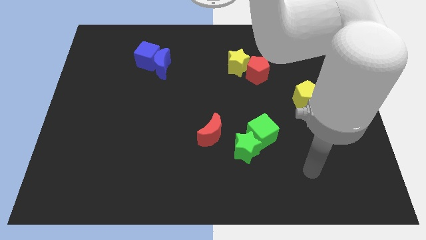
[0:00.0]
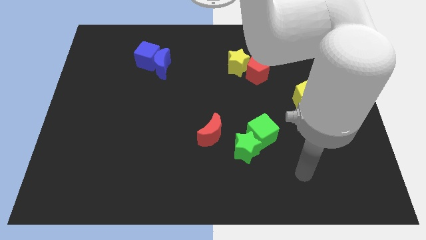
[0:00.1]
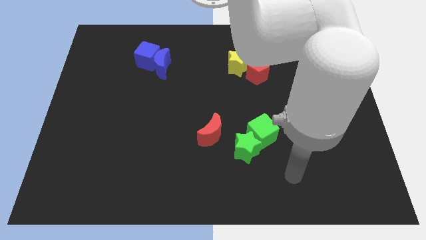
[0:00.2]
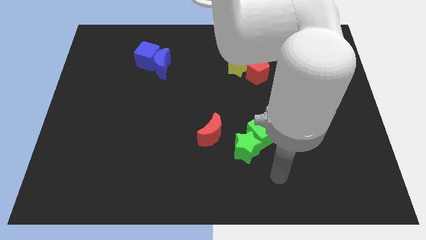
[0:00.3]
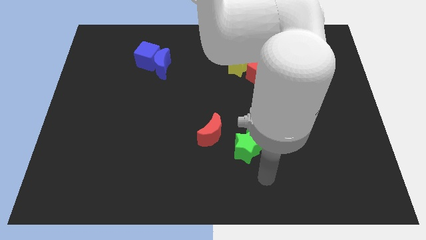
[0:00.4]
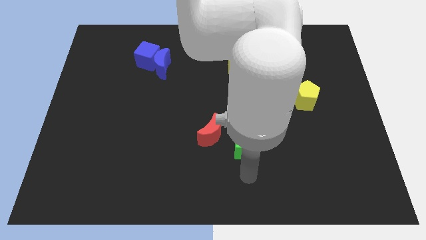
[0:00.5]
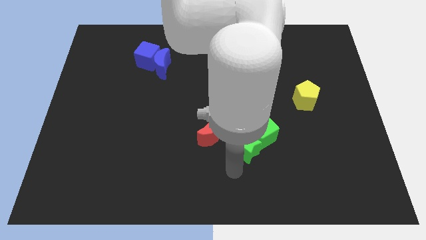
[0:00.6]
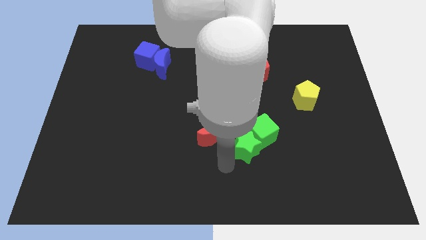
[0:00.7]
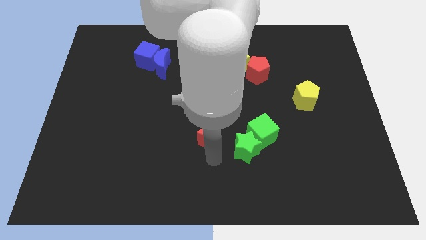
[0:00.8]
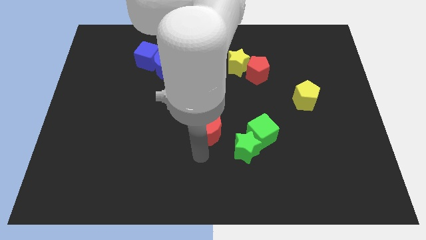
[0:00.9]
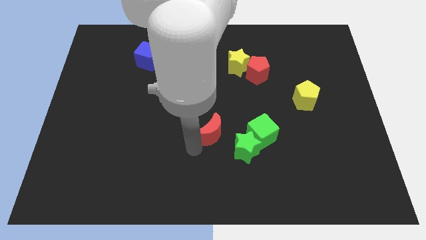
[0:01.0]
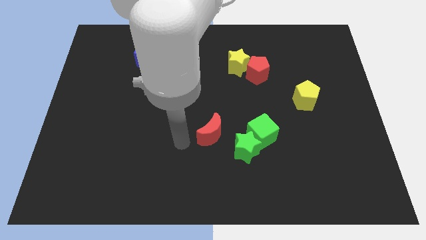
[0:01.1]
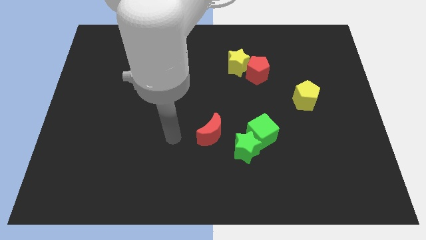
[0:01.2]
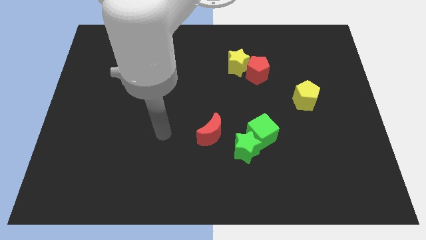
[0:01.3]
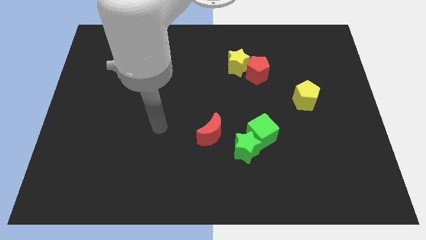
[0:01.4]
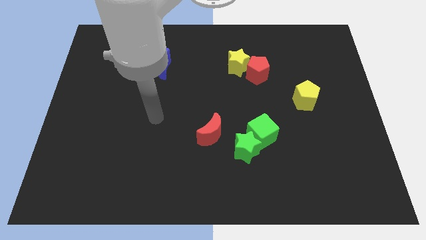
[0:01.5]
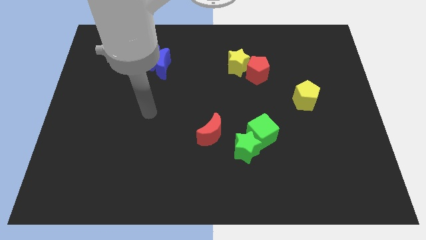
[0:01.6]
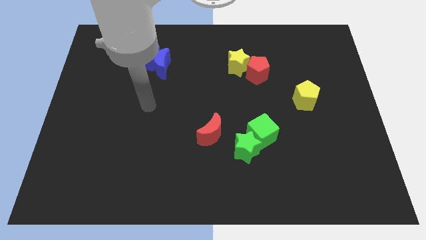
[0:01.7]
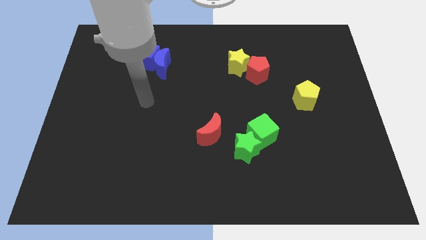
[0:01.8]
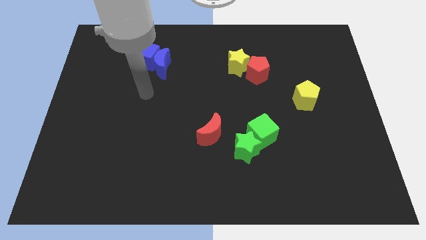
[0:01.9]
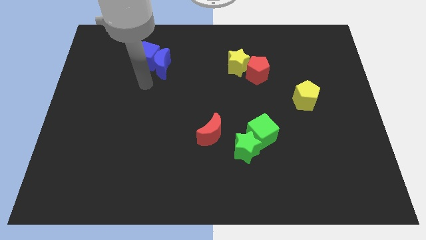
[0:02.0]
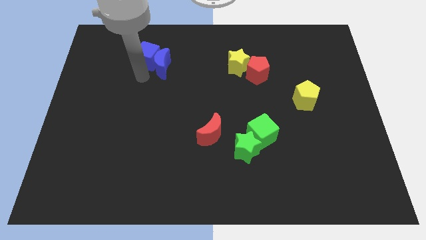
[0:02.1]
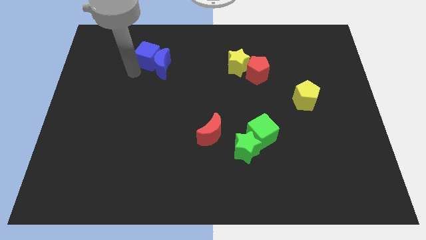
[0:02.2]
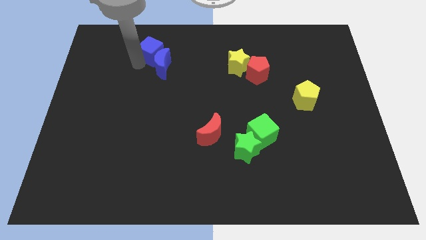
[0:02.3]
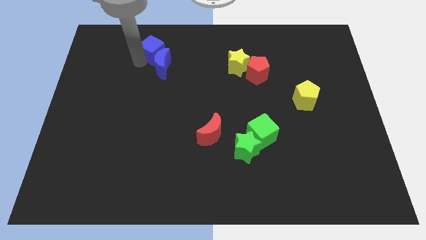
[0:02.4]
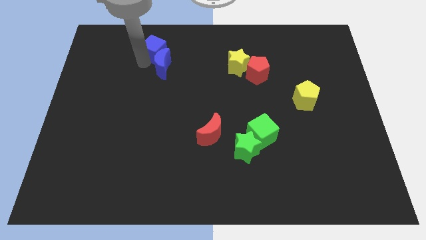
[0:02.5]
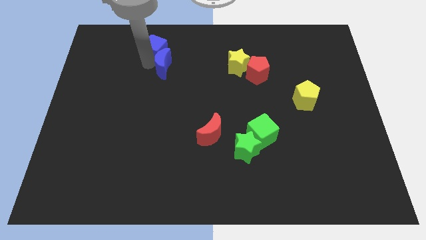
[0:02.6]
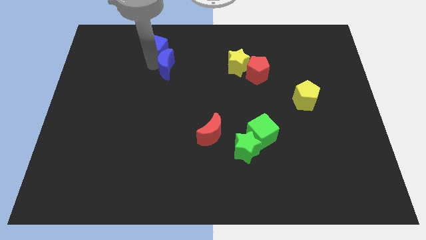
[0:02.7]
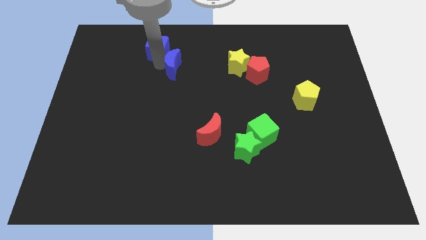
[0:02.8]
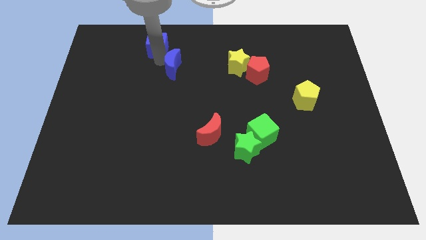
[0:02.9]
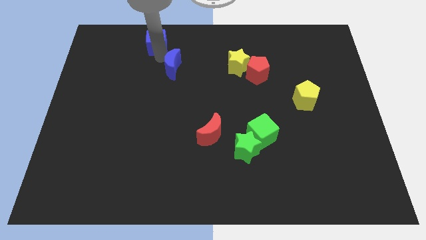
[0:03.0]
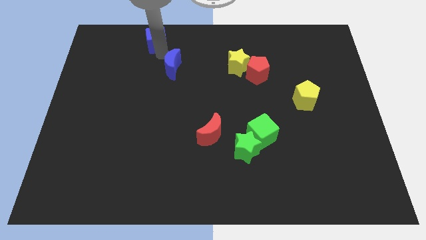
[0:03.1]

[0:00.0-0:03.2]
pull the blue moon apart from the blue cube

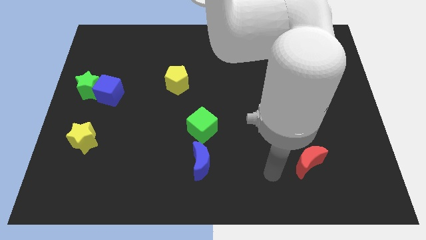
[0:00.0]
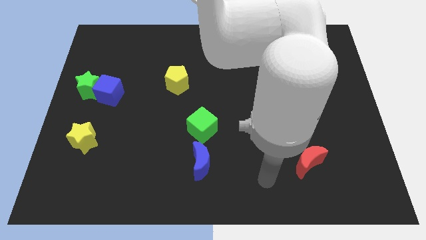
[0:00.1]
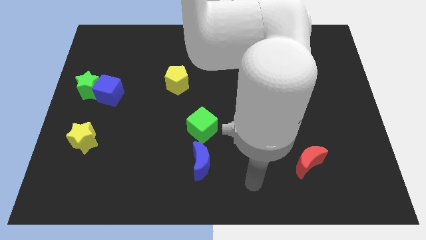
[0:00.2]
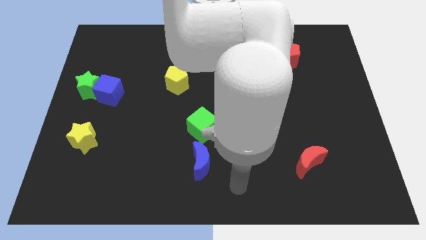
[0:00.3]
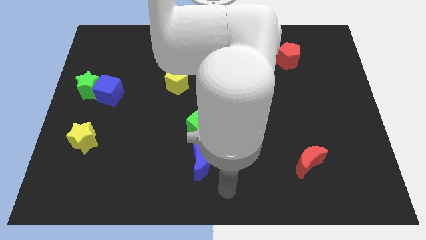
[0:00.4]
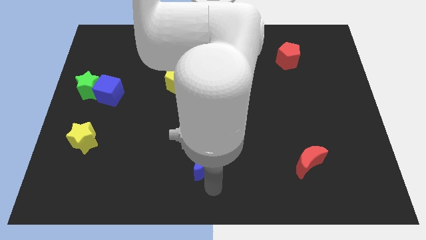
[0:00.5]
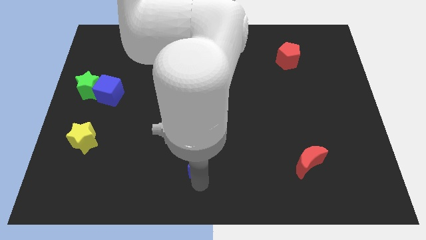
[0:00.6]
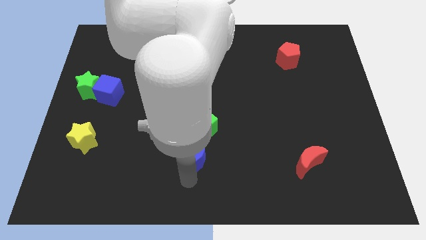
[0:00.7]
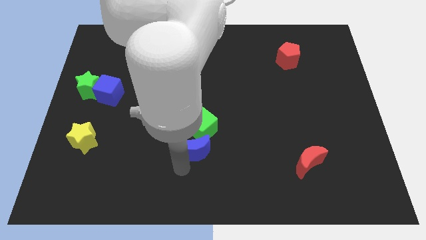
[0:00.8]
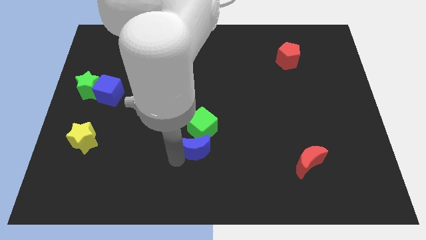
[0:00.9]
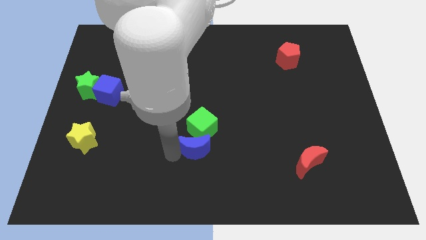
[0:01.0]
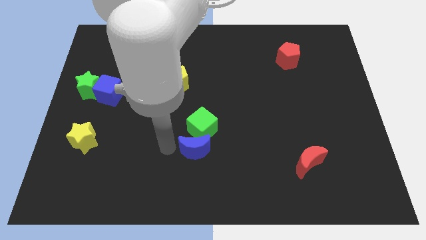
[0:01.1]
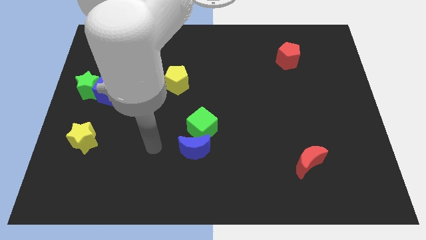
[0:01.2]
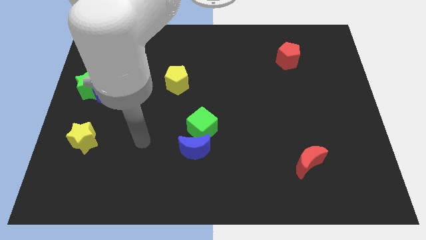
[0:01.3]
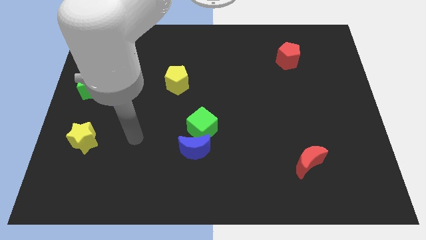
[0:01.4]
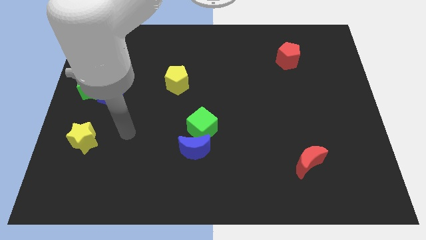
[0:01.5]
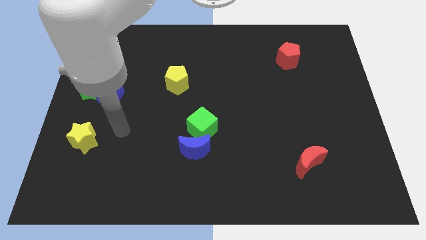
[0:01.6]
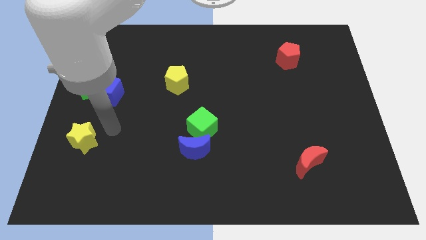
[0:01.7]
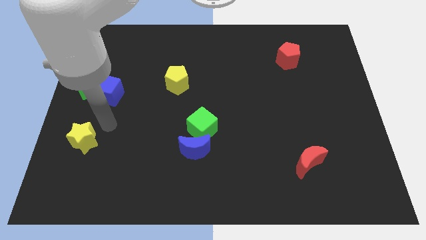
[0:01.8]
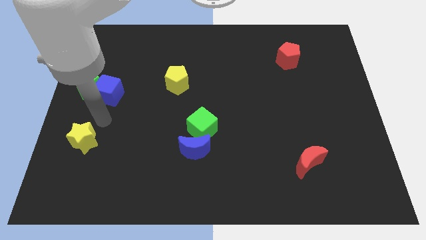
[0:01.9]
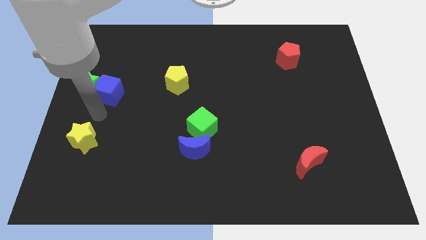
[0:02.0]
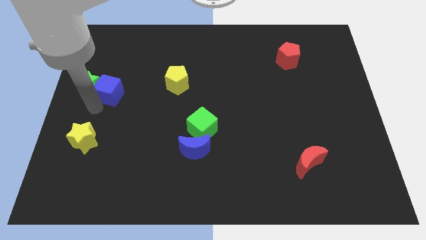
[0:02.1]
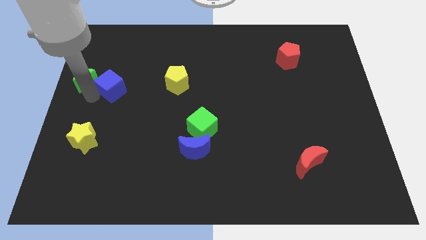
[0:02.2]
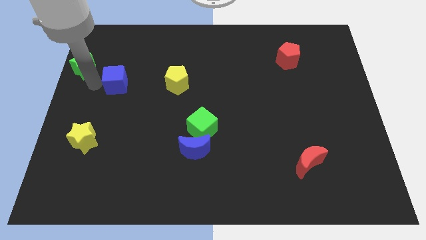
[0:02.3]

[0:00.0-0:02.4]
move the blue cube away from the green star

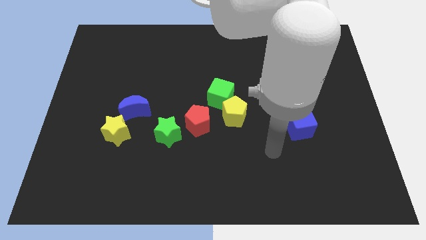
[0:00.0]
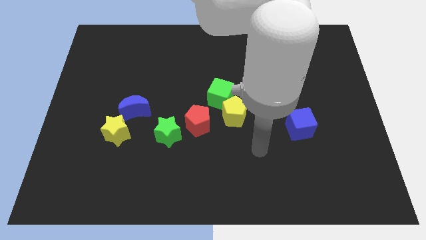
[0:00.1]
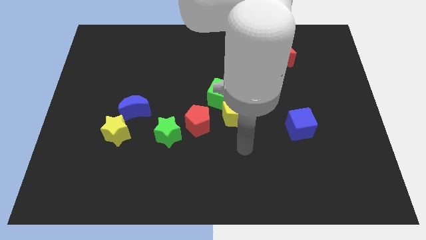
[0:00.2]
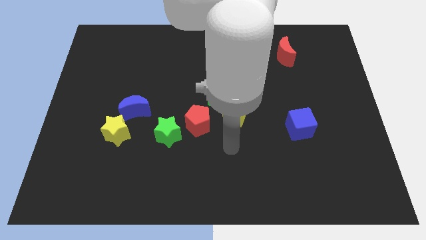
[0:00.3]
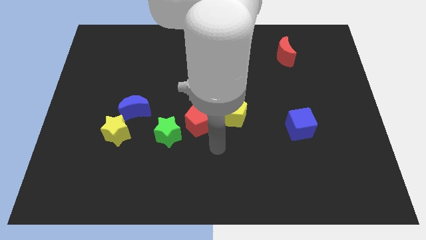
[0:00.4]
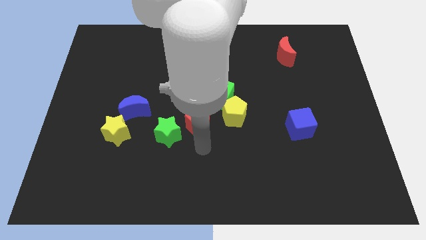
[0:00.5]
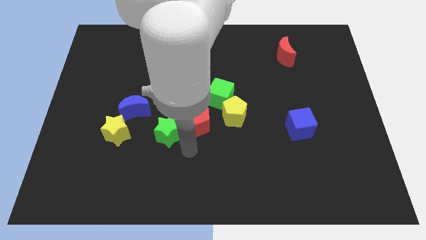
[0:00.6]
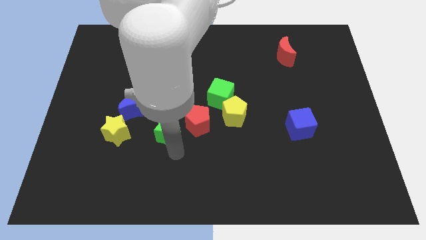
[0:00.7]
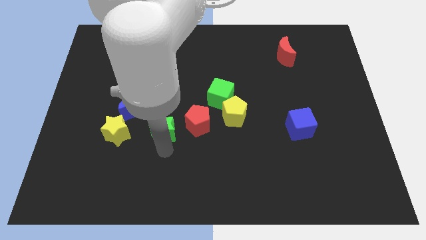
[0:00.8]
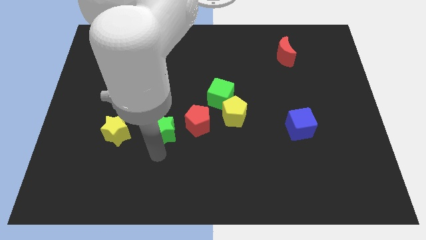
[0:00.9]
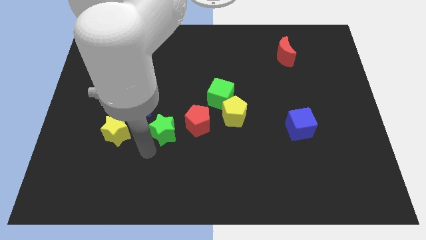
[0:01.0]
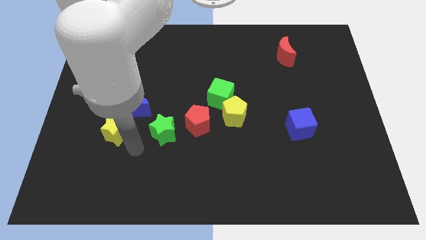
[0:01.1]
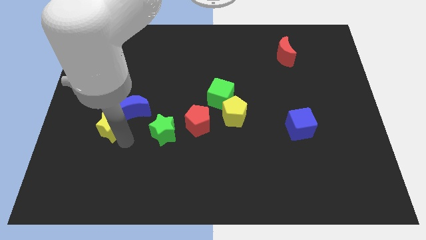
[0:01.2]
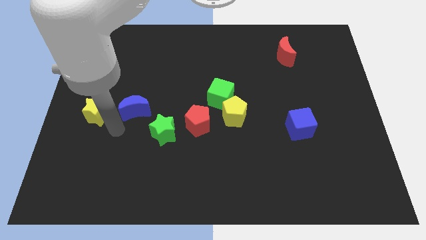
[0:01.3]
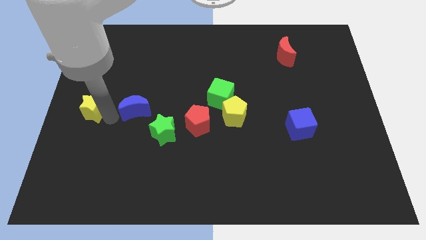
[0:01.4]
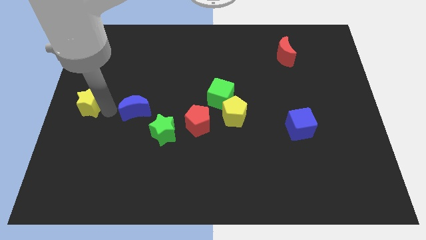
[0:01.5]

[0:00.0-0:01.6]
move the blue moon away from the yellow star

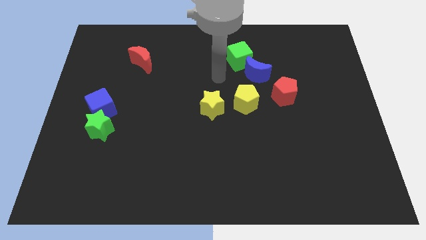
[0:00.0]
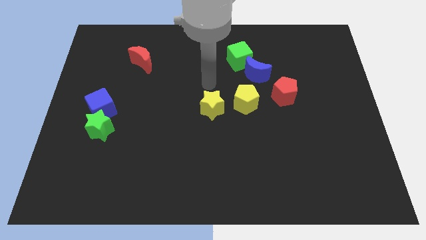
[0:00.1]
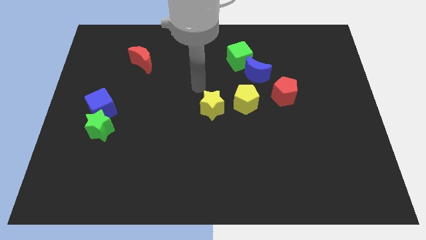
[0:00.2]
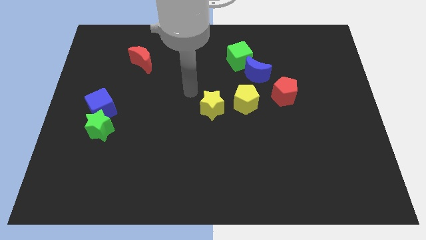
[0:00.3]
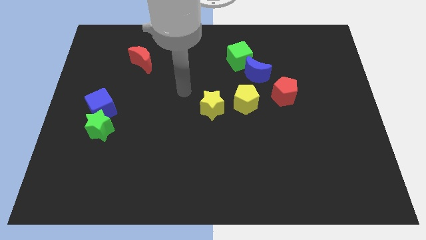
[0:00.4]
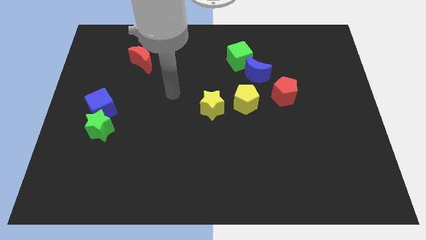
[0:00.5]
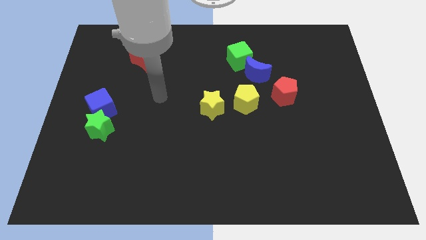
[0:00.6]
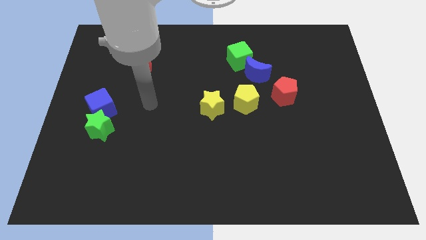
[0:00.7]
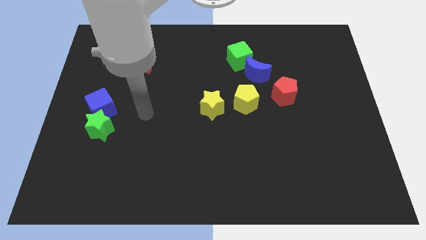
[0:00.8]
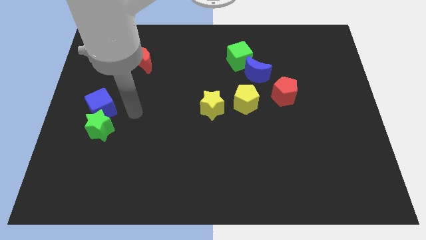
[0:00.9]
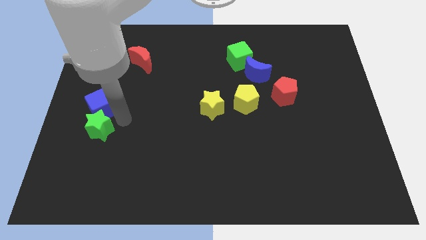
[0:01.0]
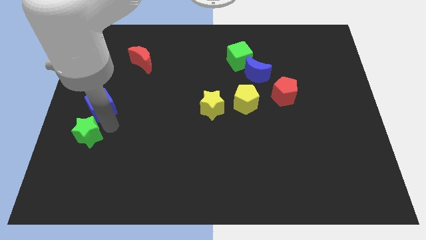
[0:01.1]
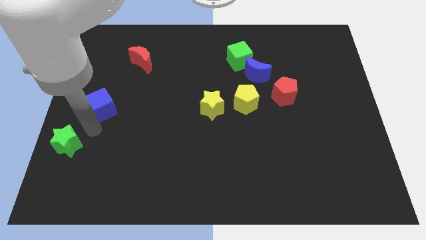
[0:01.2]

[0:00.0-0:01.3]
pull the blue cube apart from the green star

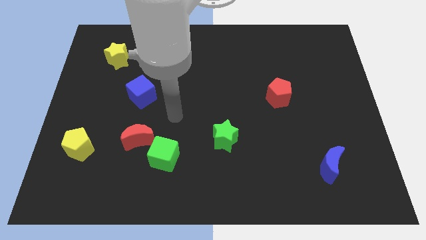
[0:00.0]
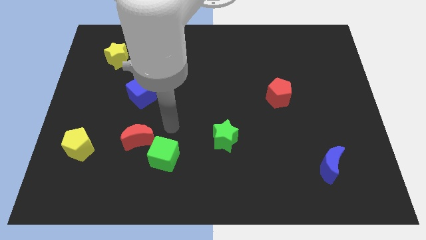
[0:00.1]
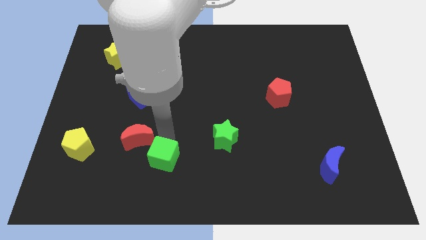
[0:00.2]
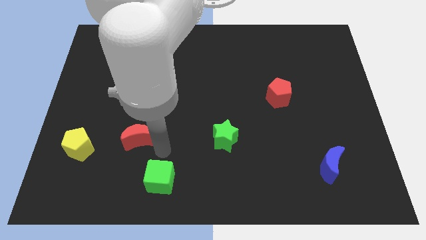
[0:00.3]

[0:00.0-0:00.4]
pull the red moon apart from the green cube

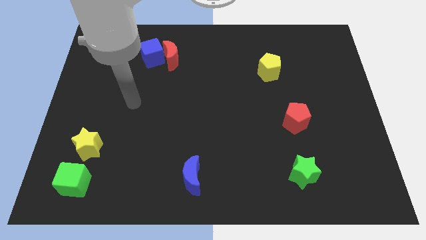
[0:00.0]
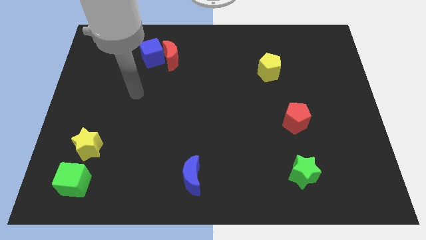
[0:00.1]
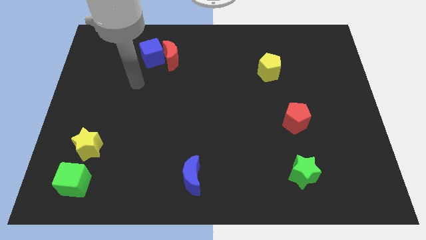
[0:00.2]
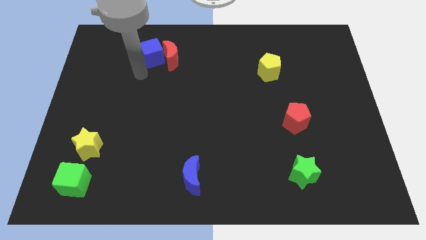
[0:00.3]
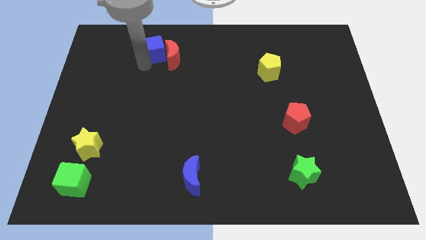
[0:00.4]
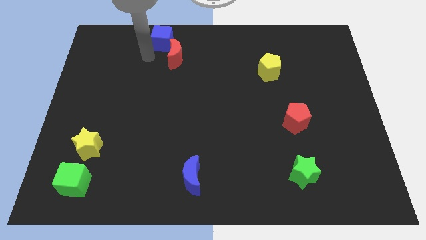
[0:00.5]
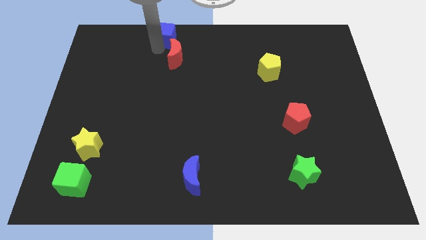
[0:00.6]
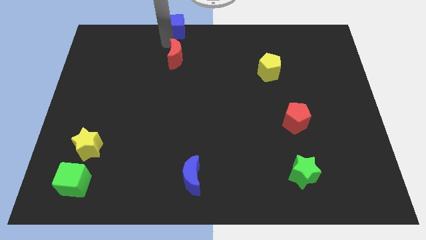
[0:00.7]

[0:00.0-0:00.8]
pull the red moon apart from the blue cube
